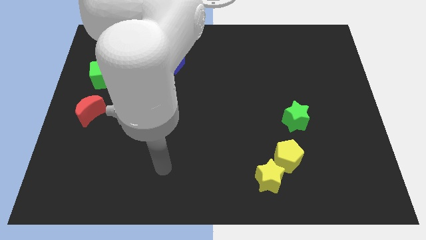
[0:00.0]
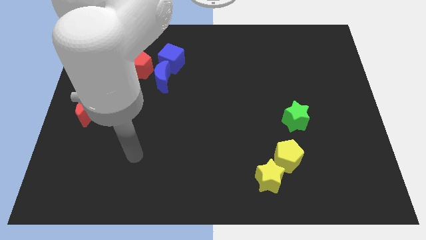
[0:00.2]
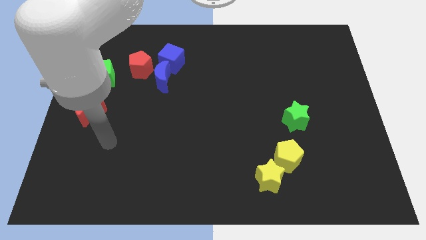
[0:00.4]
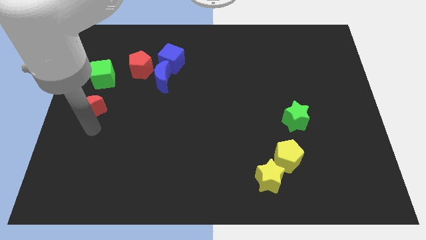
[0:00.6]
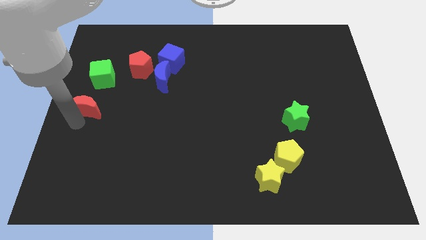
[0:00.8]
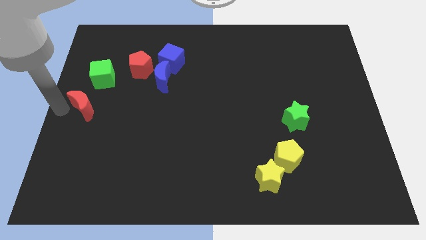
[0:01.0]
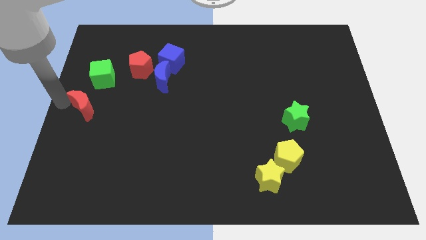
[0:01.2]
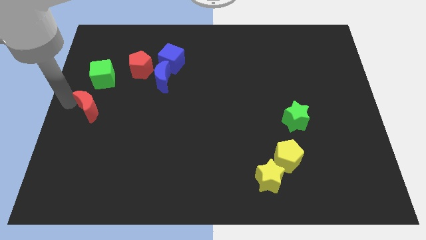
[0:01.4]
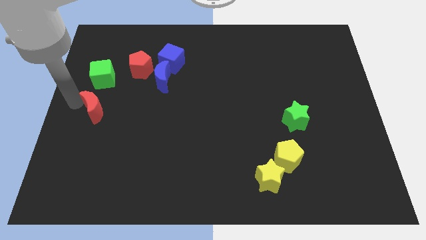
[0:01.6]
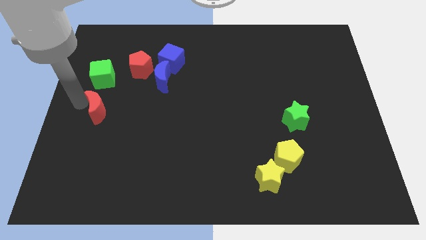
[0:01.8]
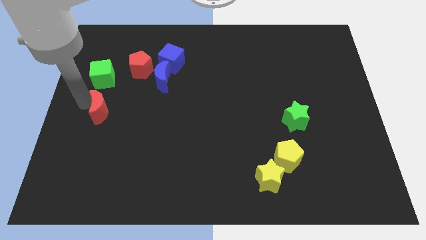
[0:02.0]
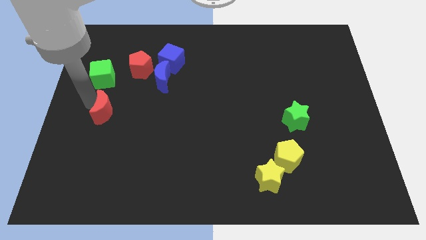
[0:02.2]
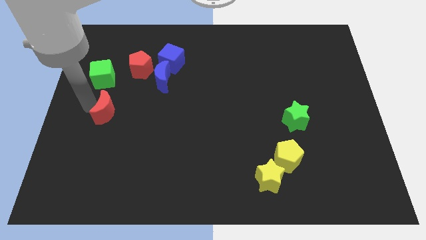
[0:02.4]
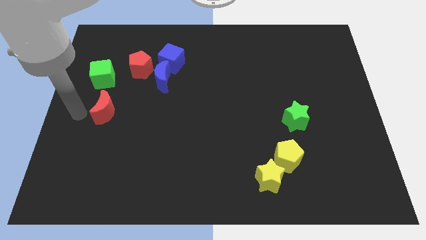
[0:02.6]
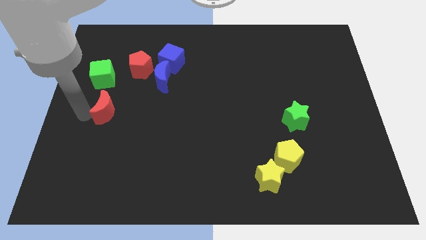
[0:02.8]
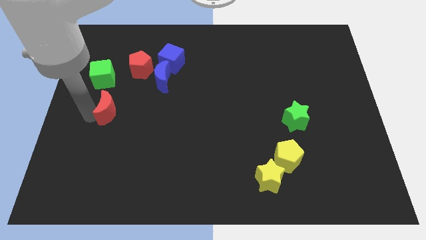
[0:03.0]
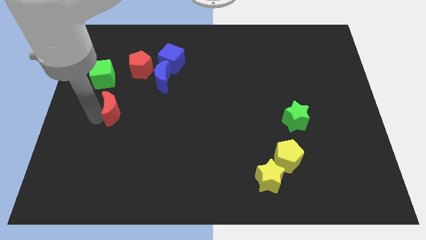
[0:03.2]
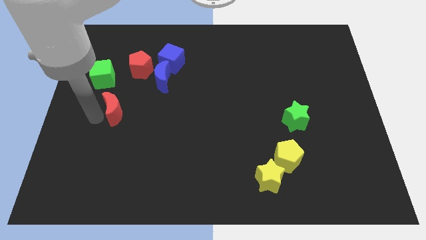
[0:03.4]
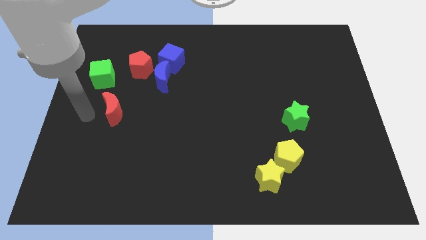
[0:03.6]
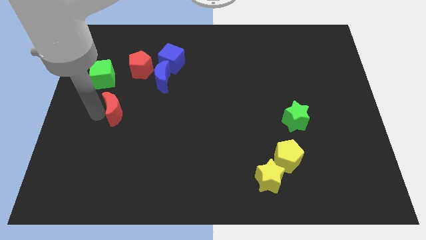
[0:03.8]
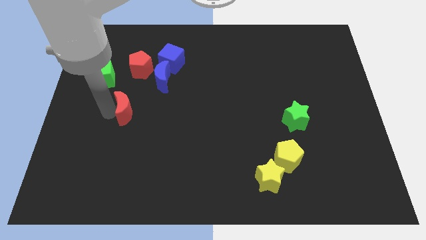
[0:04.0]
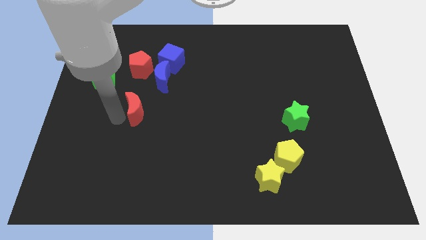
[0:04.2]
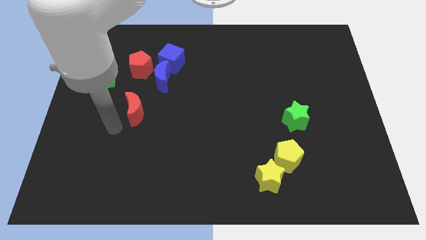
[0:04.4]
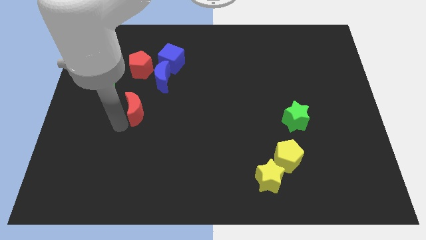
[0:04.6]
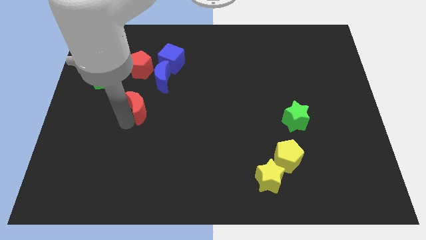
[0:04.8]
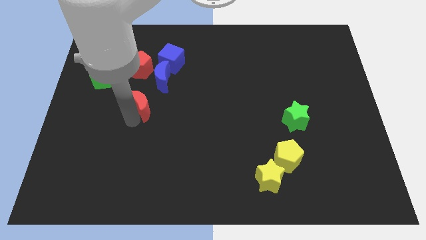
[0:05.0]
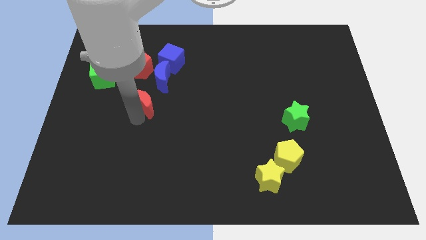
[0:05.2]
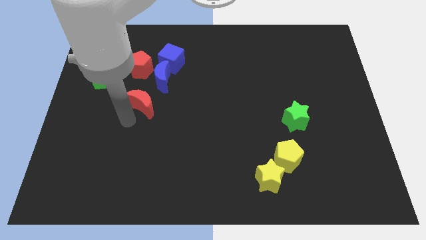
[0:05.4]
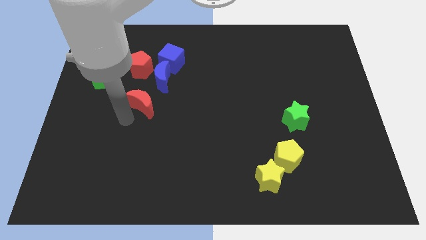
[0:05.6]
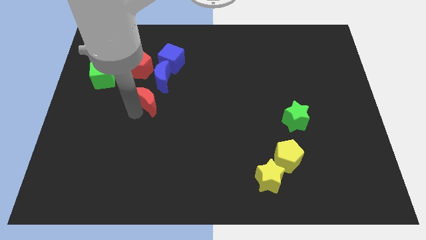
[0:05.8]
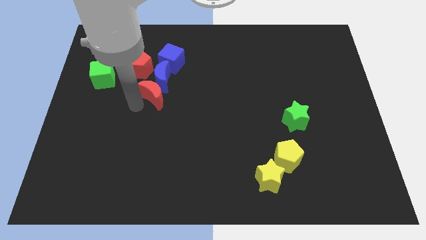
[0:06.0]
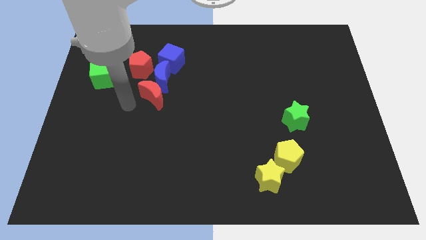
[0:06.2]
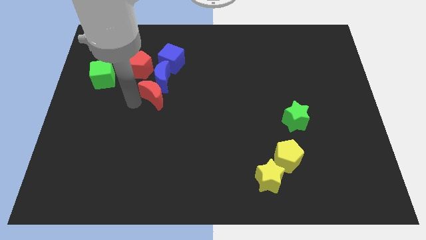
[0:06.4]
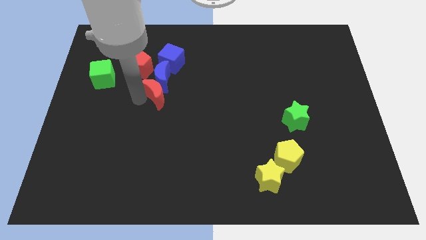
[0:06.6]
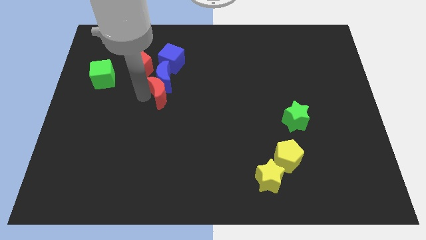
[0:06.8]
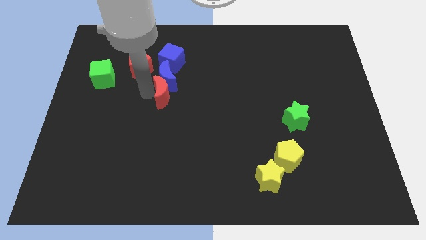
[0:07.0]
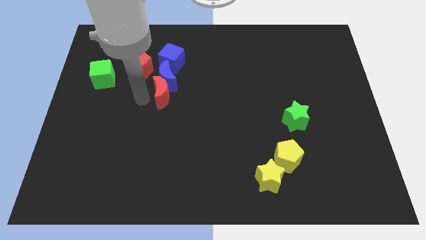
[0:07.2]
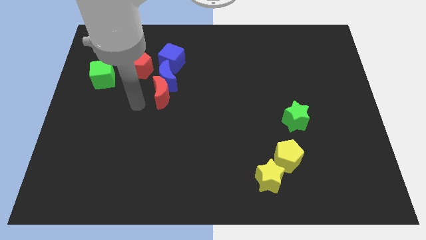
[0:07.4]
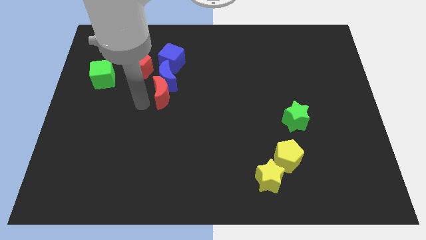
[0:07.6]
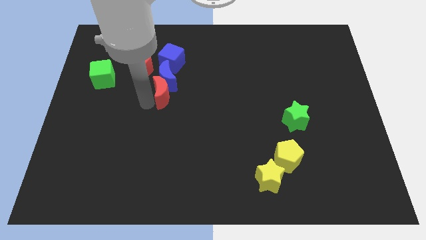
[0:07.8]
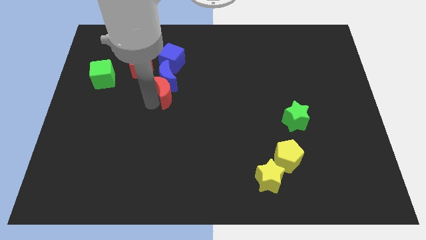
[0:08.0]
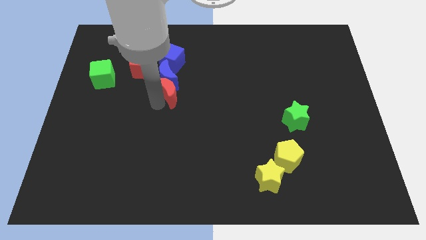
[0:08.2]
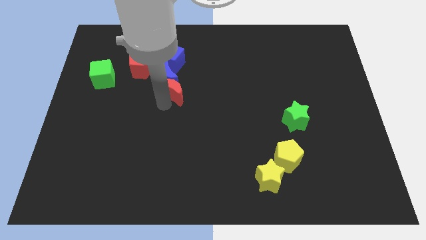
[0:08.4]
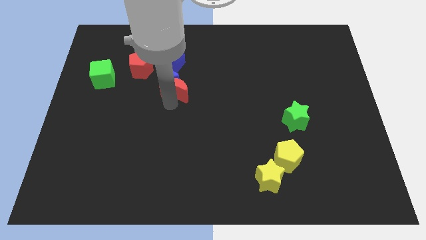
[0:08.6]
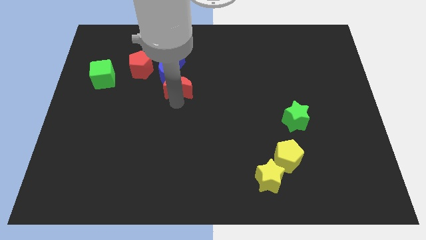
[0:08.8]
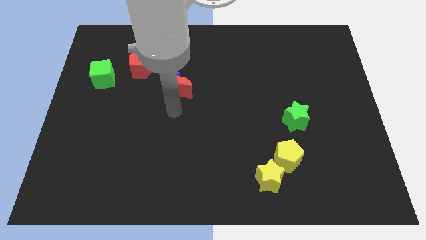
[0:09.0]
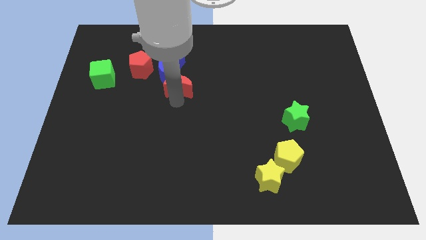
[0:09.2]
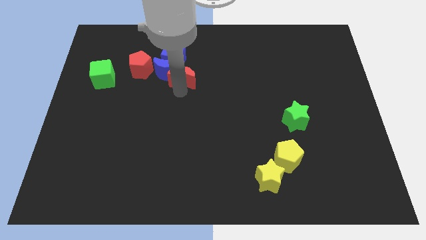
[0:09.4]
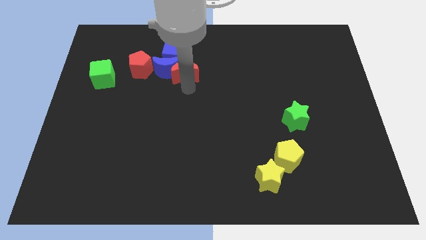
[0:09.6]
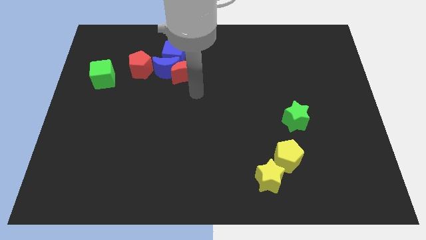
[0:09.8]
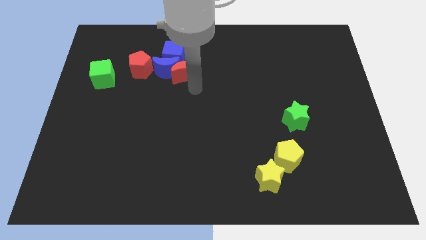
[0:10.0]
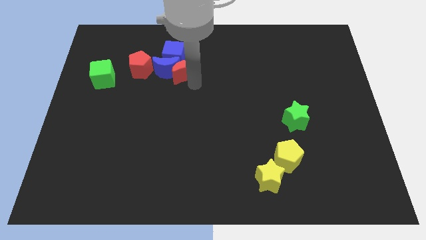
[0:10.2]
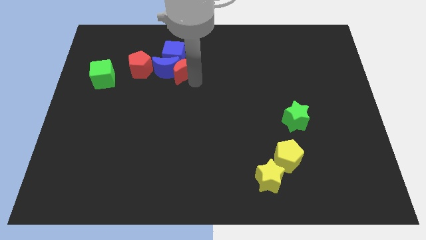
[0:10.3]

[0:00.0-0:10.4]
move the red moon towards the blue cube

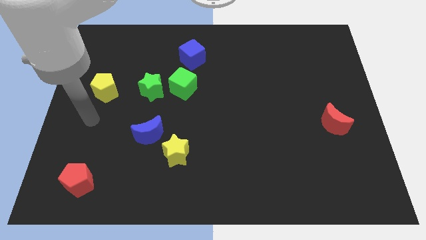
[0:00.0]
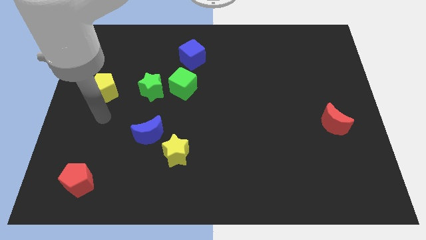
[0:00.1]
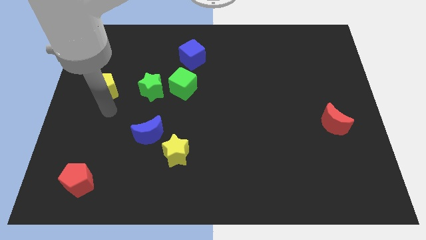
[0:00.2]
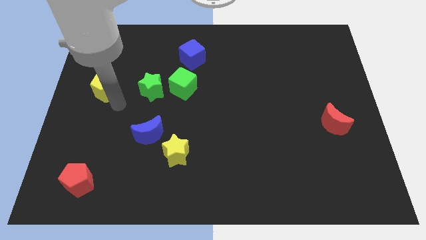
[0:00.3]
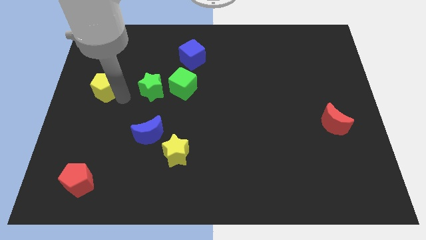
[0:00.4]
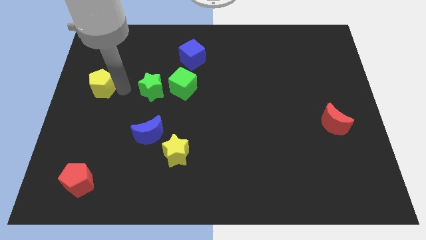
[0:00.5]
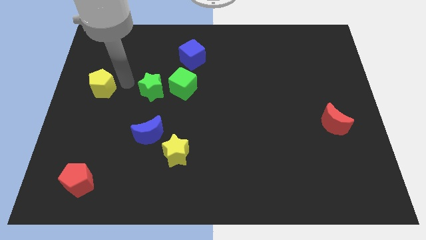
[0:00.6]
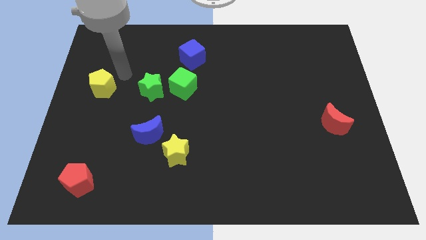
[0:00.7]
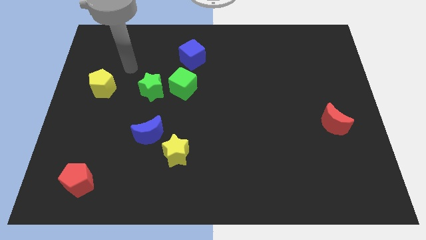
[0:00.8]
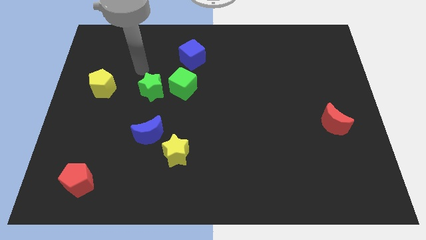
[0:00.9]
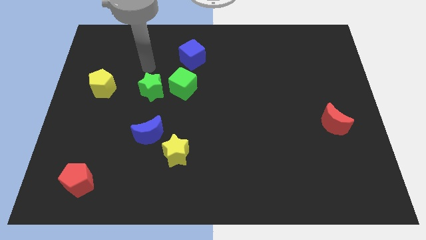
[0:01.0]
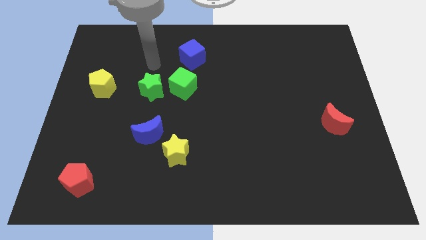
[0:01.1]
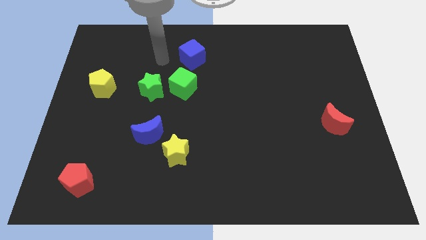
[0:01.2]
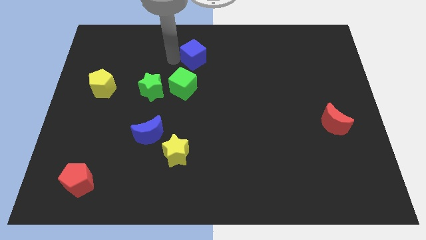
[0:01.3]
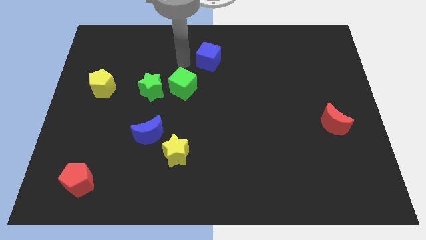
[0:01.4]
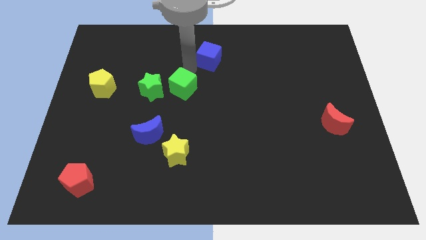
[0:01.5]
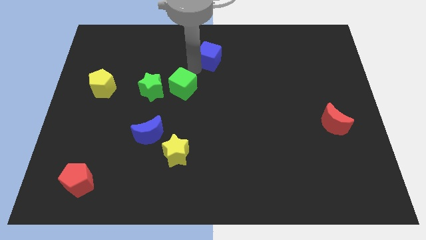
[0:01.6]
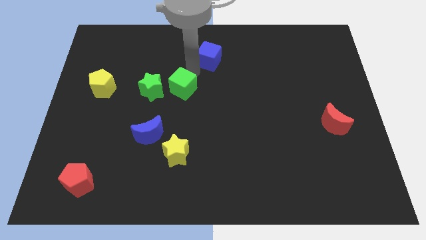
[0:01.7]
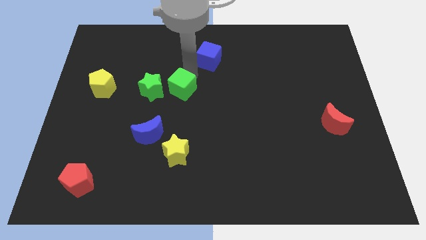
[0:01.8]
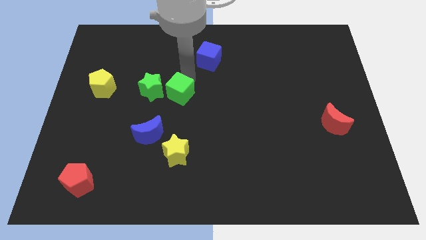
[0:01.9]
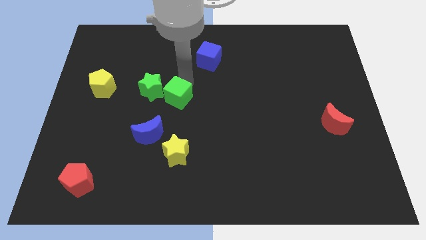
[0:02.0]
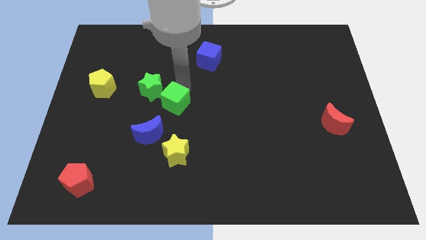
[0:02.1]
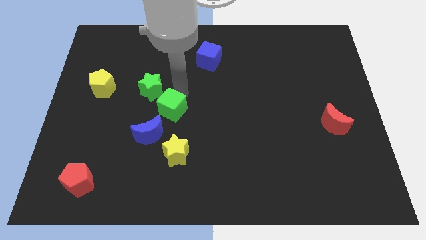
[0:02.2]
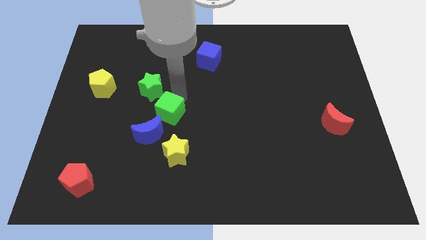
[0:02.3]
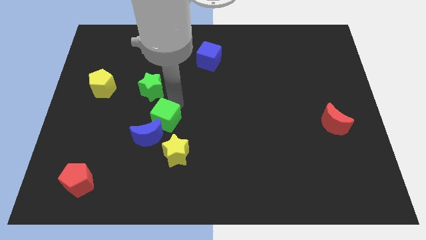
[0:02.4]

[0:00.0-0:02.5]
push the green cube to the blue moon
